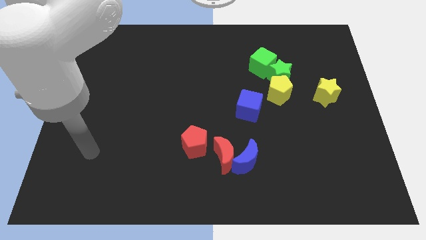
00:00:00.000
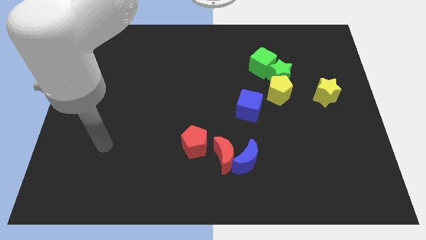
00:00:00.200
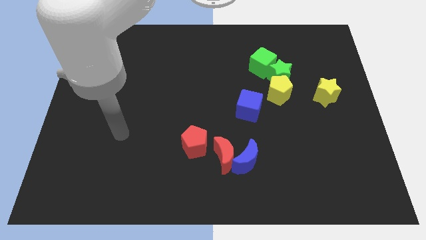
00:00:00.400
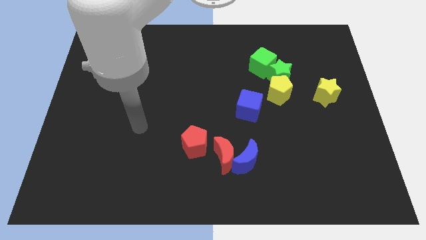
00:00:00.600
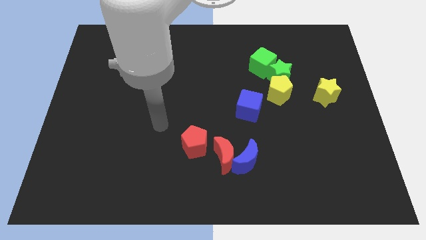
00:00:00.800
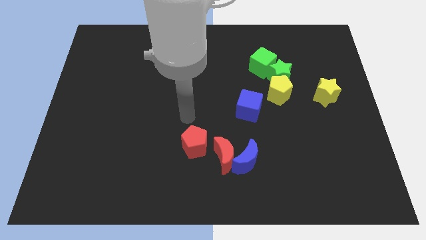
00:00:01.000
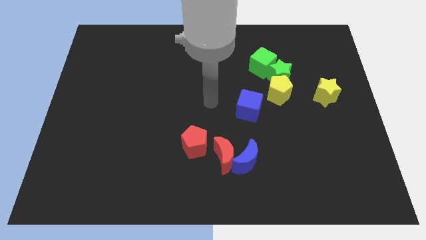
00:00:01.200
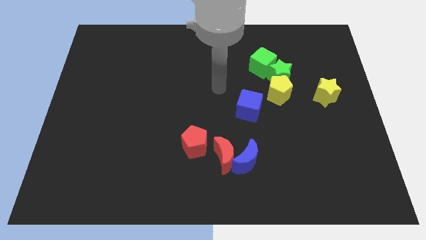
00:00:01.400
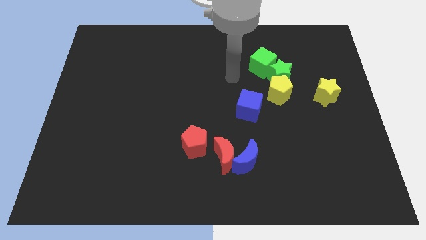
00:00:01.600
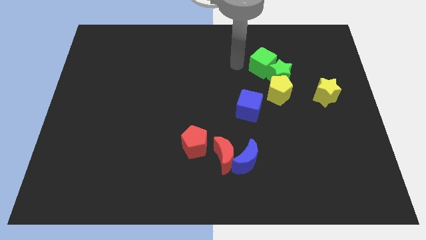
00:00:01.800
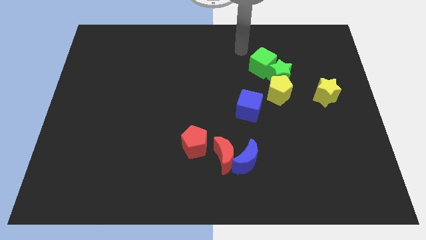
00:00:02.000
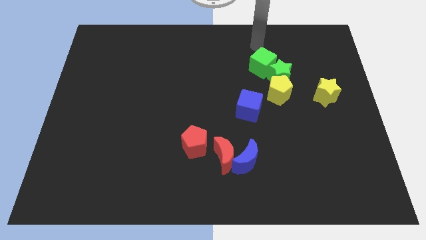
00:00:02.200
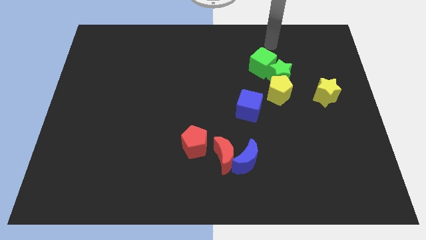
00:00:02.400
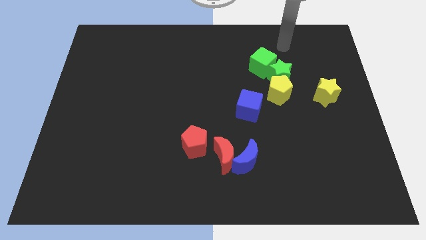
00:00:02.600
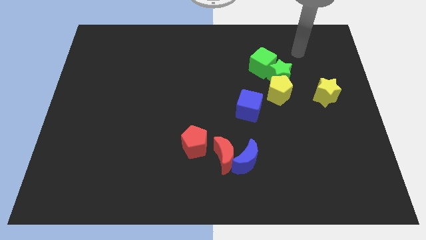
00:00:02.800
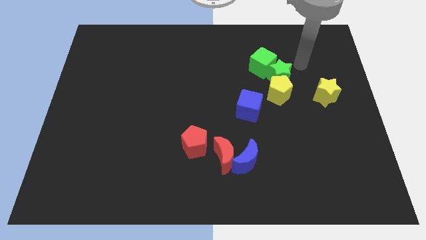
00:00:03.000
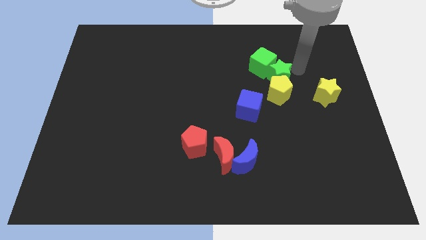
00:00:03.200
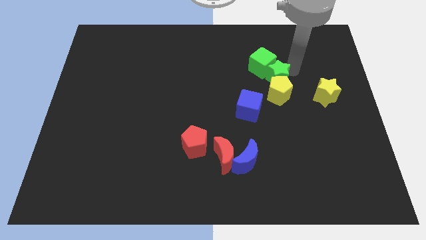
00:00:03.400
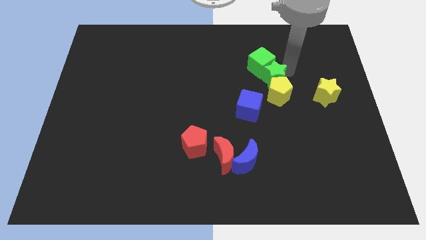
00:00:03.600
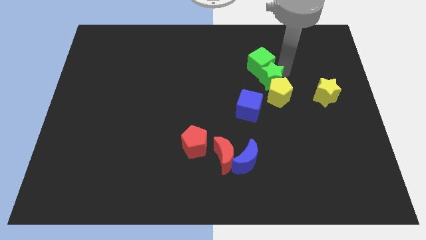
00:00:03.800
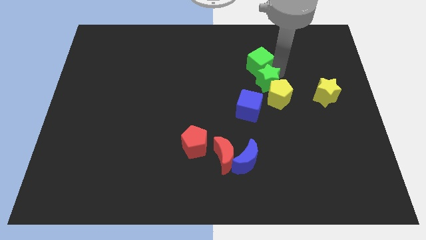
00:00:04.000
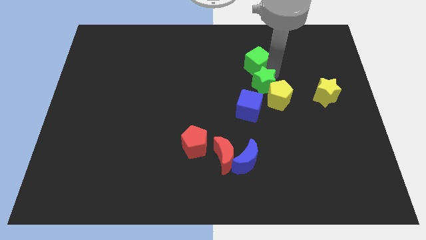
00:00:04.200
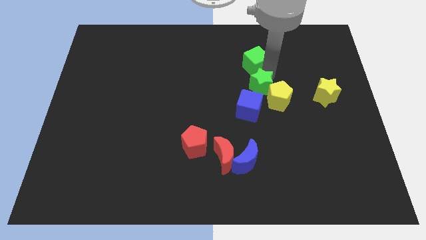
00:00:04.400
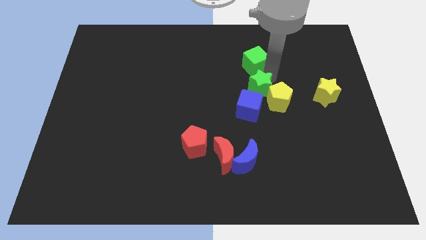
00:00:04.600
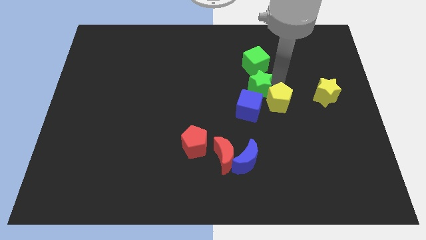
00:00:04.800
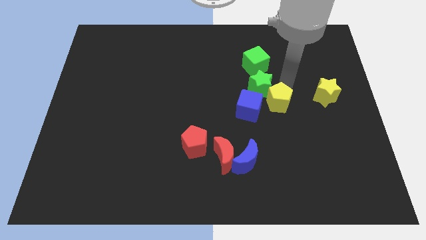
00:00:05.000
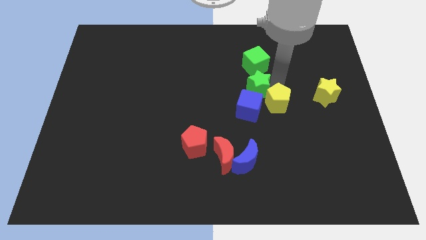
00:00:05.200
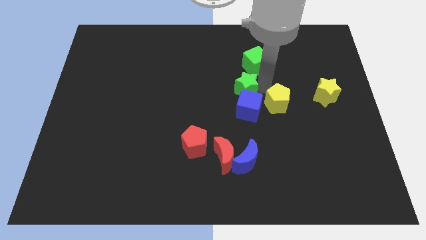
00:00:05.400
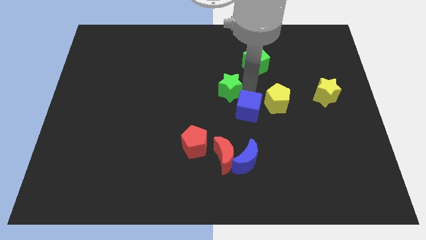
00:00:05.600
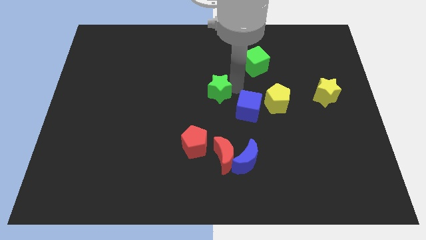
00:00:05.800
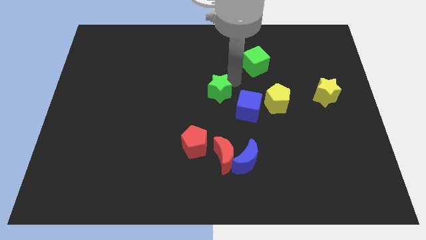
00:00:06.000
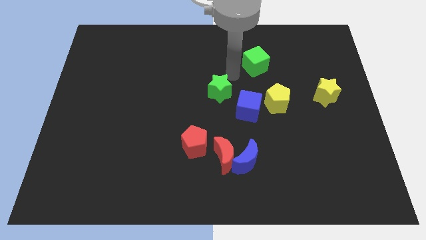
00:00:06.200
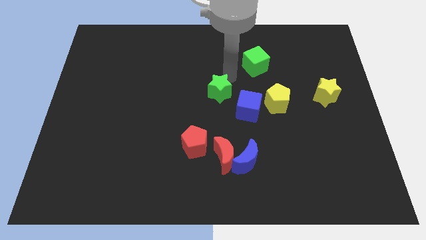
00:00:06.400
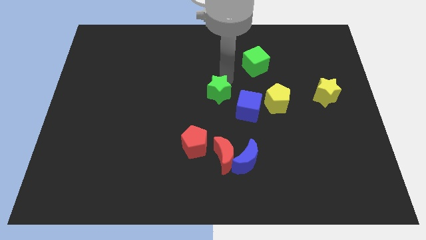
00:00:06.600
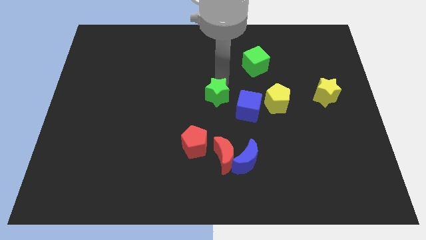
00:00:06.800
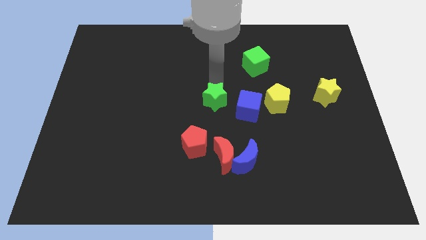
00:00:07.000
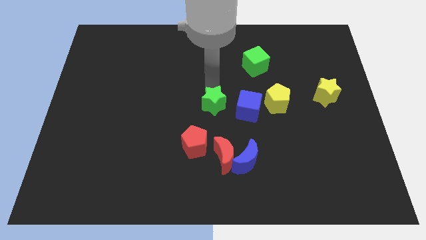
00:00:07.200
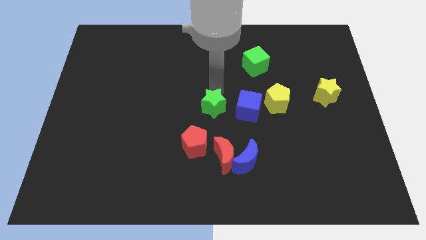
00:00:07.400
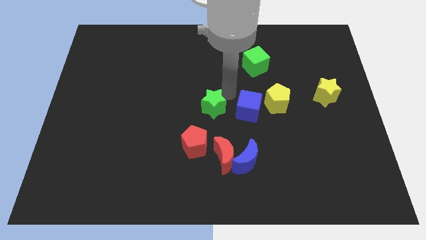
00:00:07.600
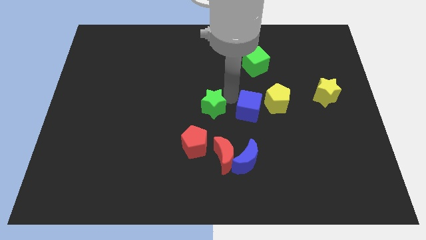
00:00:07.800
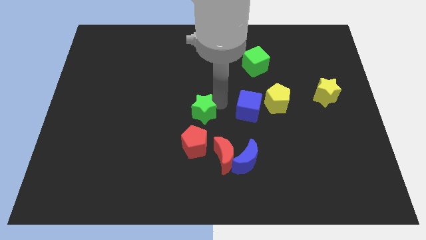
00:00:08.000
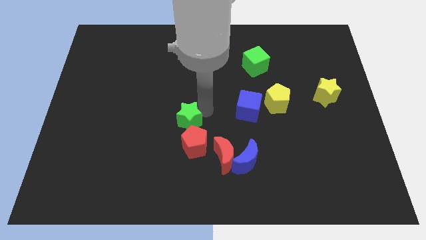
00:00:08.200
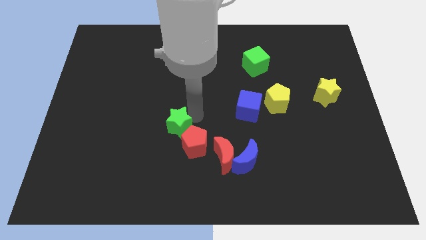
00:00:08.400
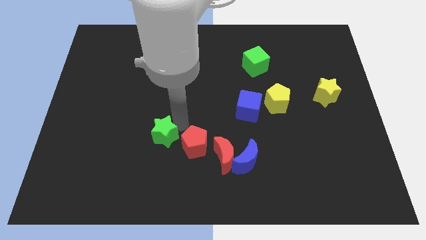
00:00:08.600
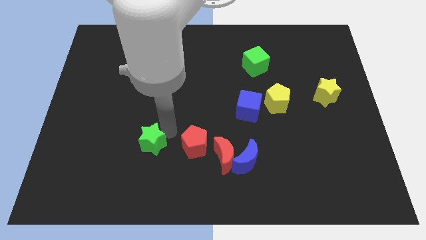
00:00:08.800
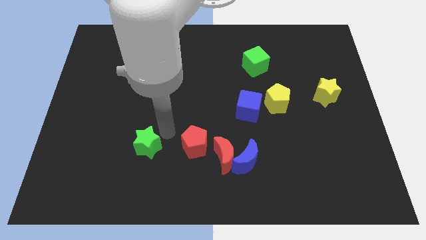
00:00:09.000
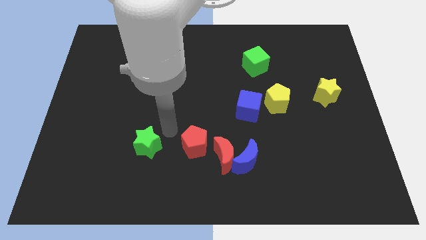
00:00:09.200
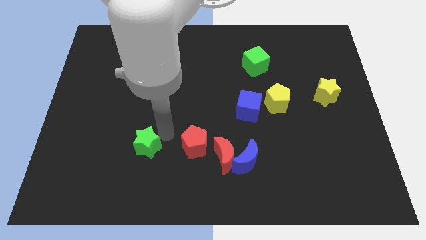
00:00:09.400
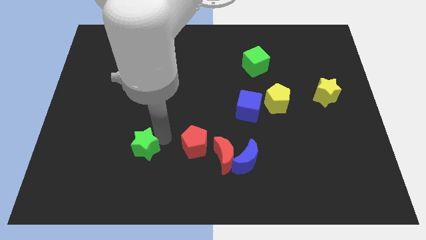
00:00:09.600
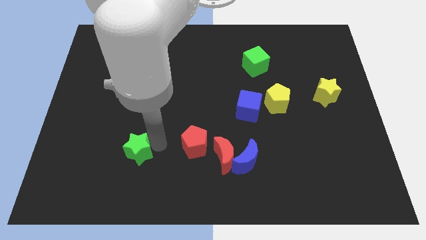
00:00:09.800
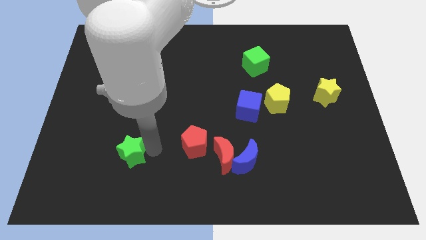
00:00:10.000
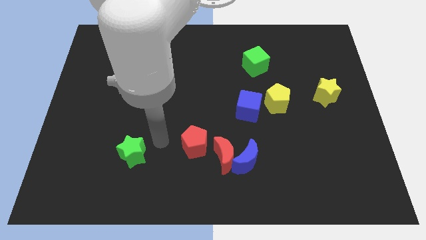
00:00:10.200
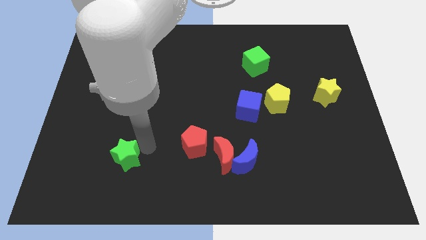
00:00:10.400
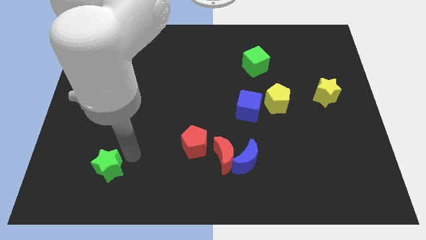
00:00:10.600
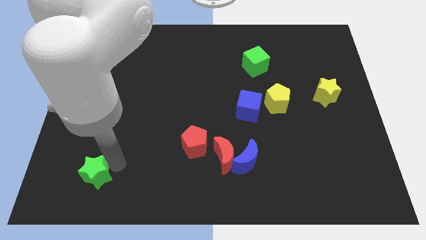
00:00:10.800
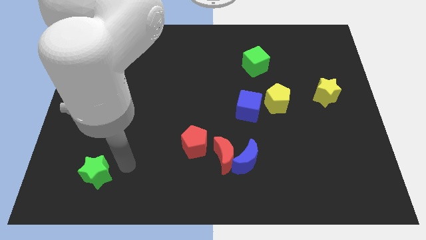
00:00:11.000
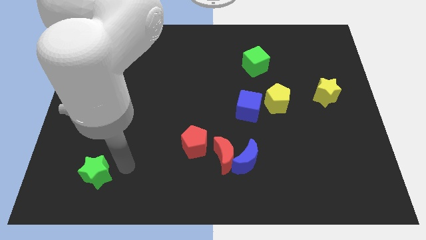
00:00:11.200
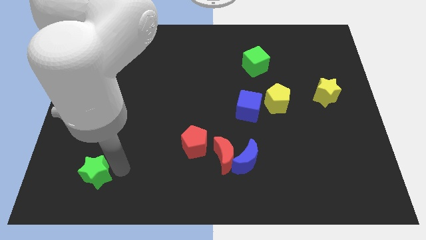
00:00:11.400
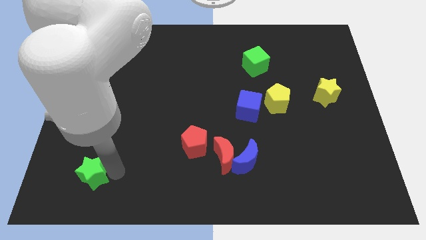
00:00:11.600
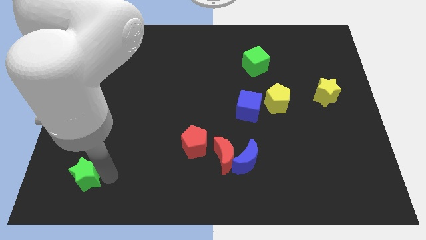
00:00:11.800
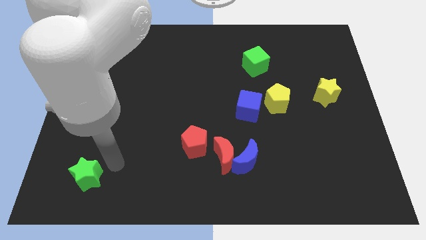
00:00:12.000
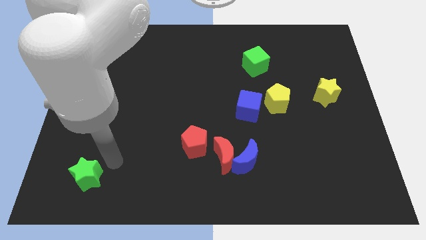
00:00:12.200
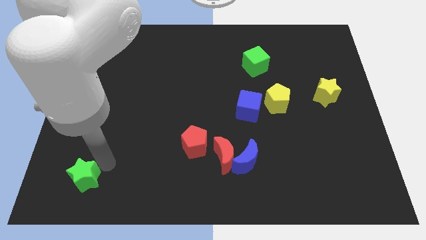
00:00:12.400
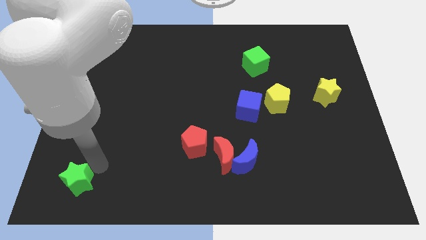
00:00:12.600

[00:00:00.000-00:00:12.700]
slide the green star to the bottom left
